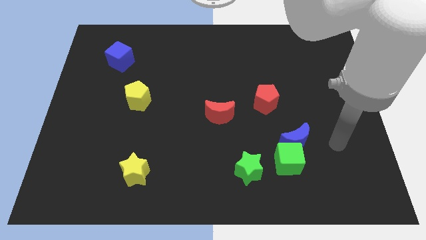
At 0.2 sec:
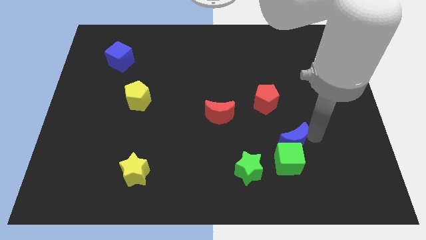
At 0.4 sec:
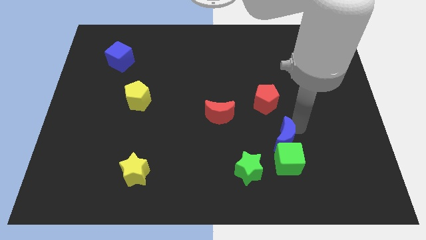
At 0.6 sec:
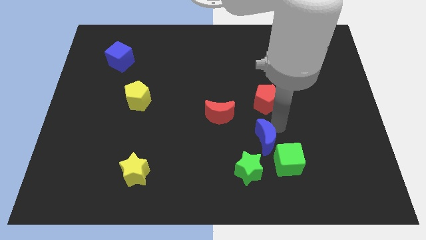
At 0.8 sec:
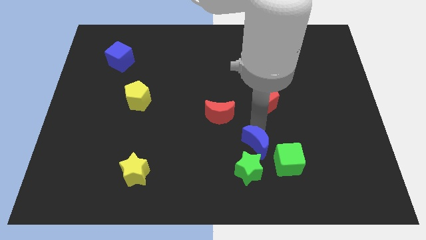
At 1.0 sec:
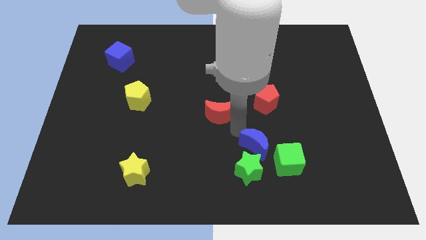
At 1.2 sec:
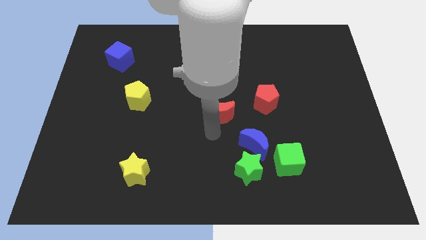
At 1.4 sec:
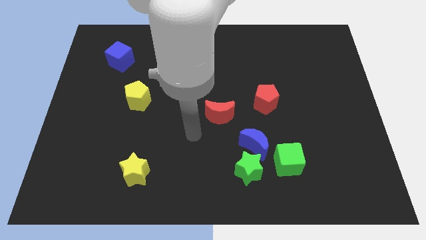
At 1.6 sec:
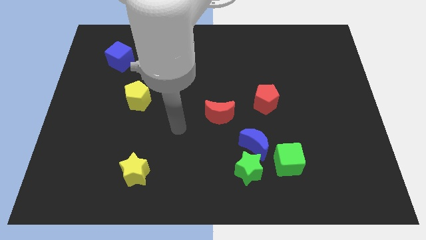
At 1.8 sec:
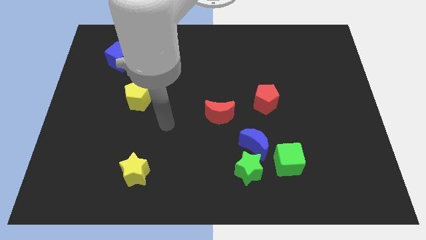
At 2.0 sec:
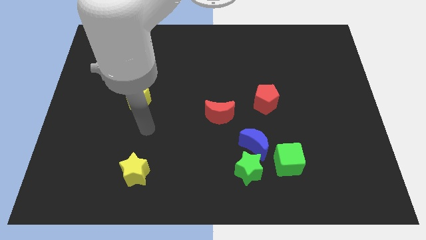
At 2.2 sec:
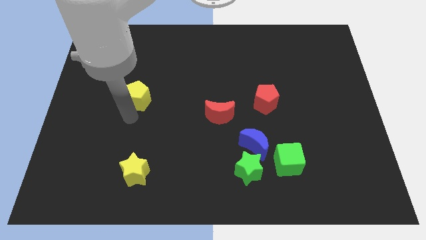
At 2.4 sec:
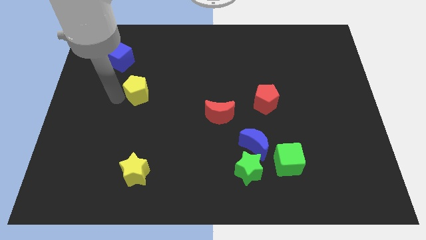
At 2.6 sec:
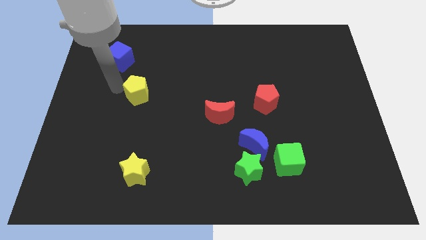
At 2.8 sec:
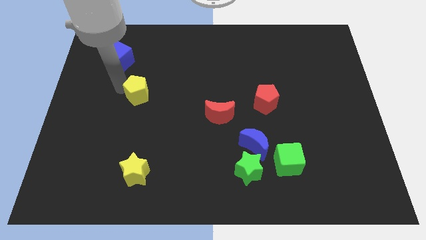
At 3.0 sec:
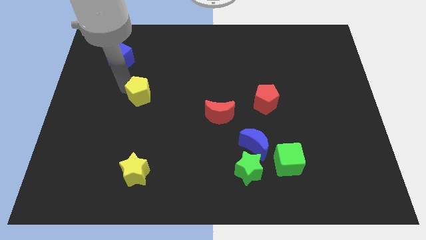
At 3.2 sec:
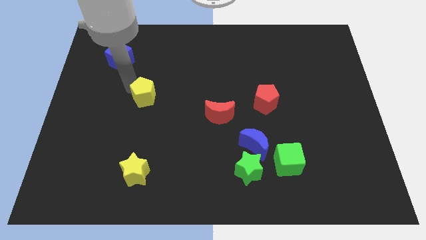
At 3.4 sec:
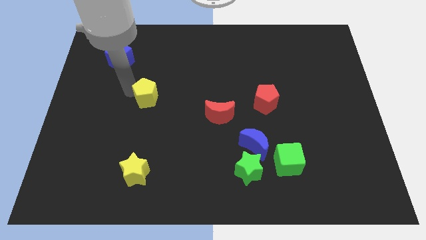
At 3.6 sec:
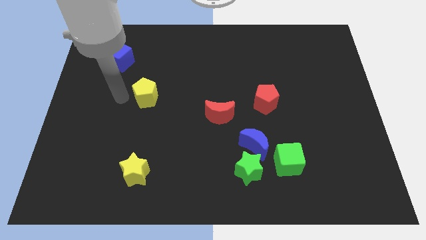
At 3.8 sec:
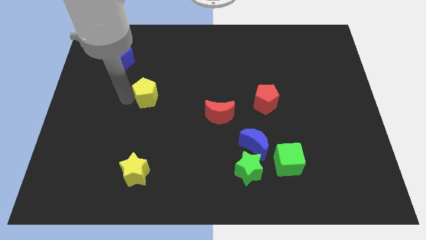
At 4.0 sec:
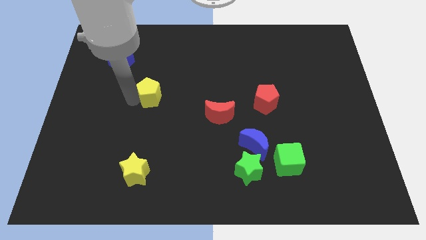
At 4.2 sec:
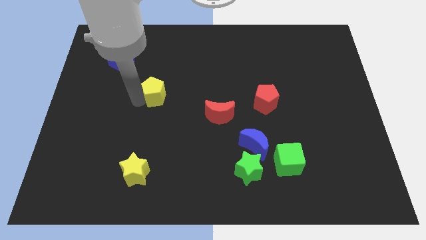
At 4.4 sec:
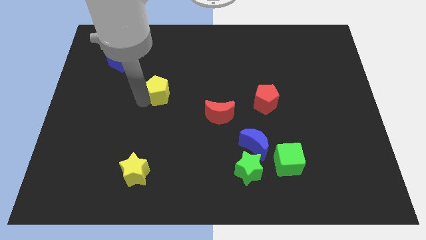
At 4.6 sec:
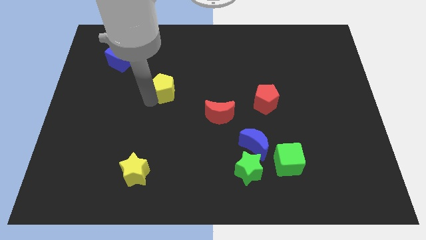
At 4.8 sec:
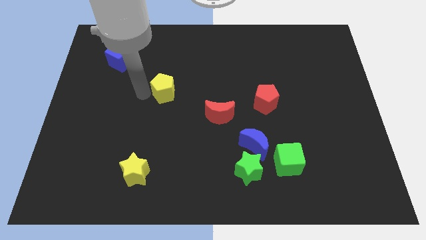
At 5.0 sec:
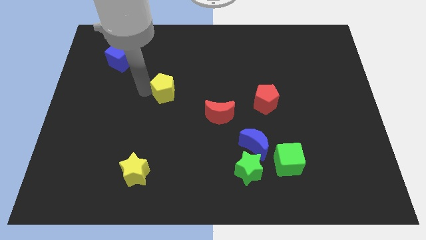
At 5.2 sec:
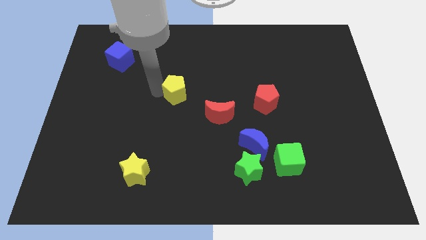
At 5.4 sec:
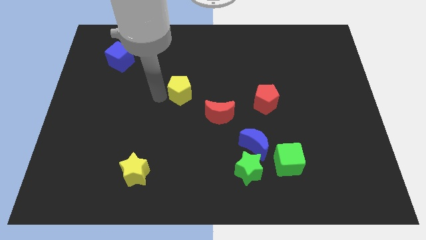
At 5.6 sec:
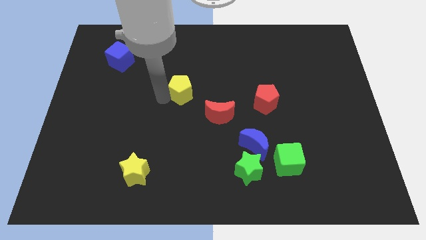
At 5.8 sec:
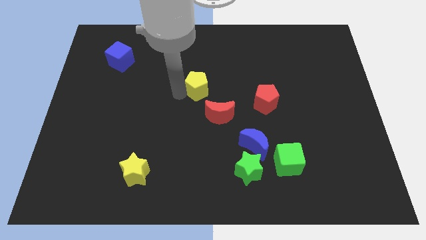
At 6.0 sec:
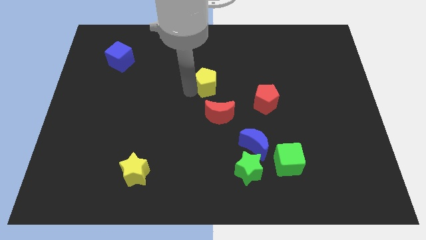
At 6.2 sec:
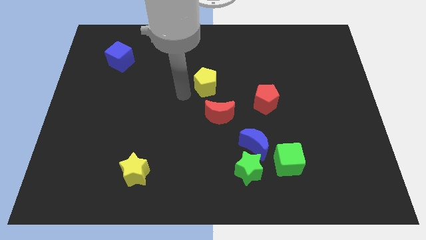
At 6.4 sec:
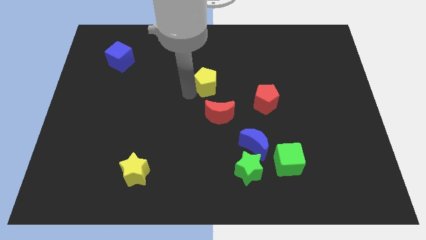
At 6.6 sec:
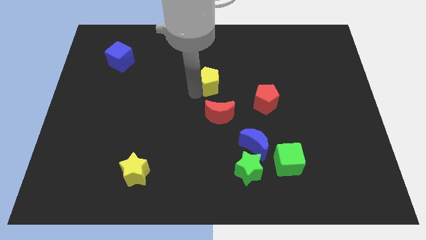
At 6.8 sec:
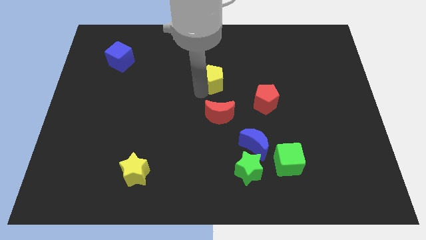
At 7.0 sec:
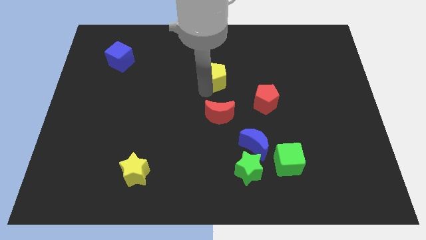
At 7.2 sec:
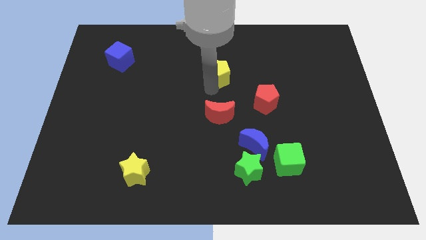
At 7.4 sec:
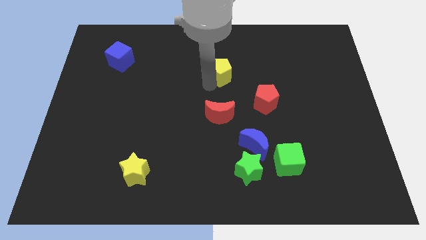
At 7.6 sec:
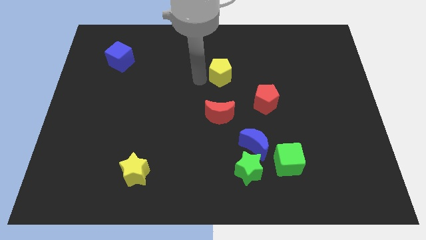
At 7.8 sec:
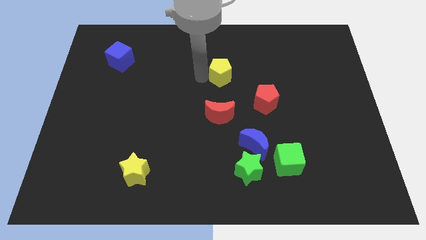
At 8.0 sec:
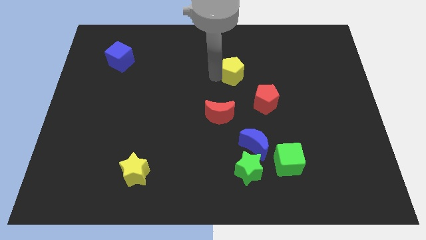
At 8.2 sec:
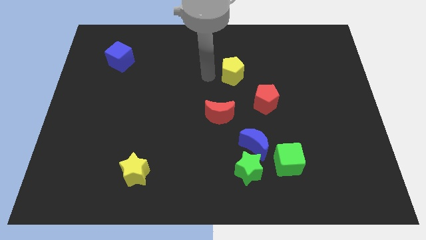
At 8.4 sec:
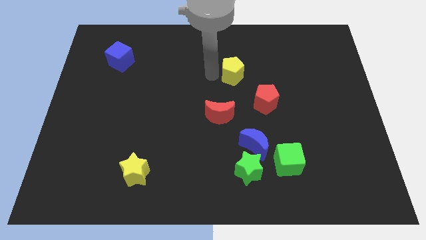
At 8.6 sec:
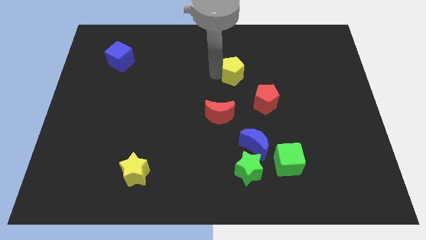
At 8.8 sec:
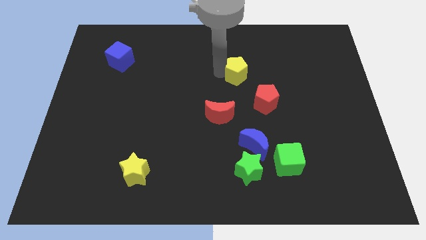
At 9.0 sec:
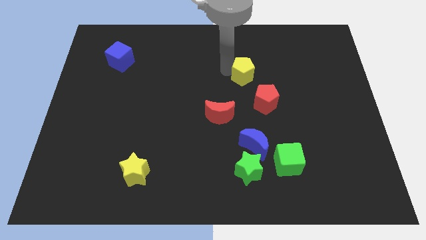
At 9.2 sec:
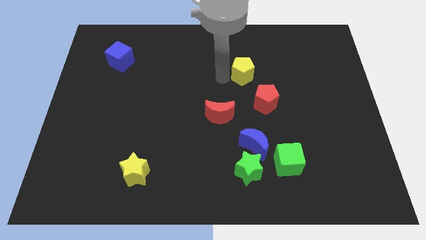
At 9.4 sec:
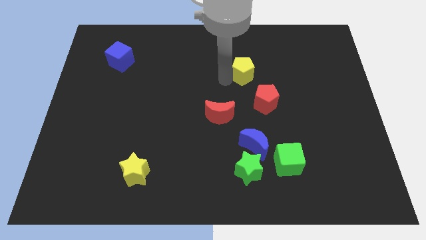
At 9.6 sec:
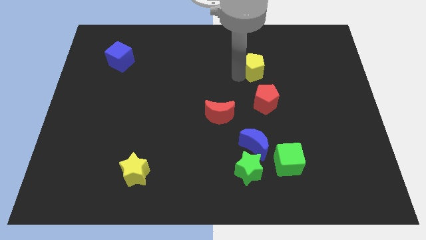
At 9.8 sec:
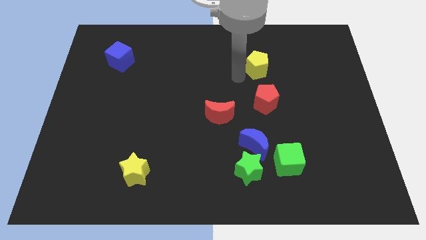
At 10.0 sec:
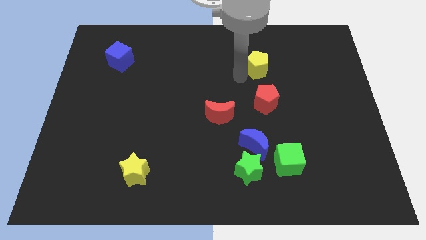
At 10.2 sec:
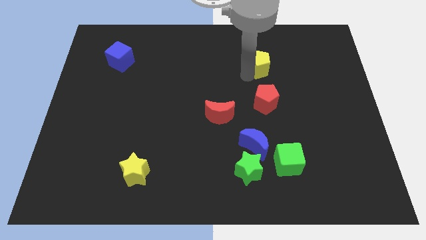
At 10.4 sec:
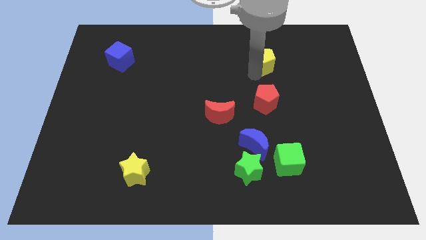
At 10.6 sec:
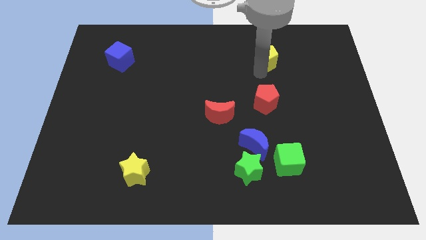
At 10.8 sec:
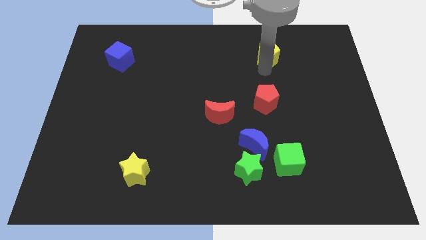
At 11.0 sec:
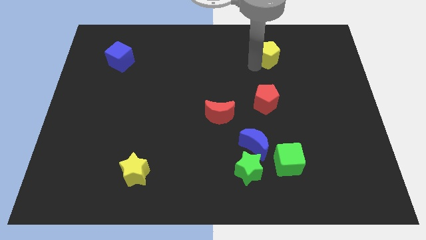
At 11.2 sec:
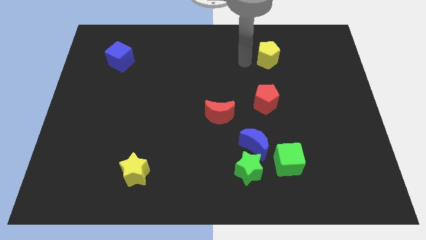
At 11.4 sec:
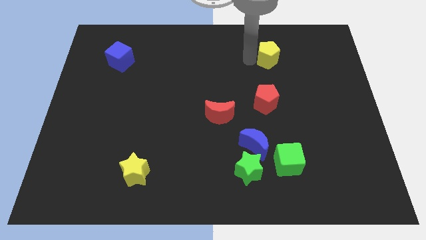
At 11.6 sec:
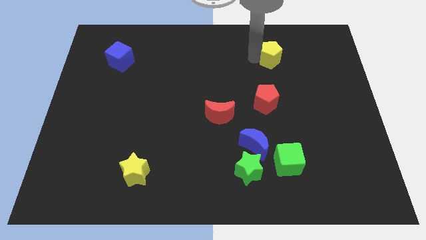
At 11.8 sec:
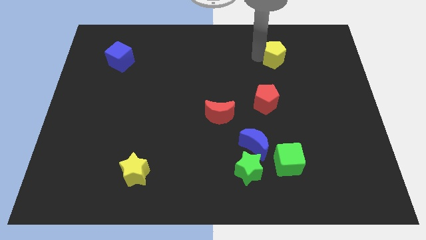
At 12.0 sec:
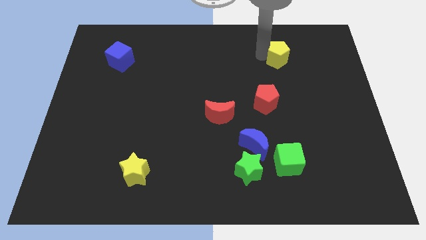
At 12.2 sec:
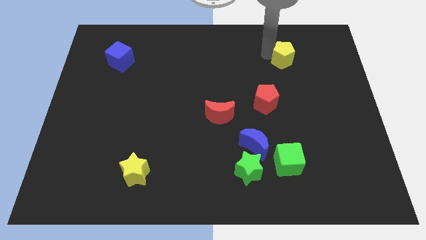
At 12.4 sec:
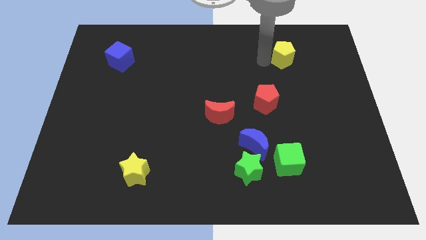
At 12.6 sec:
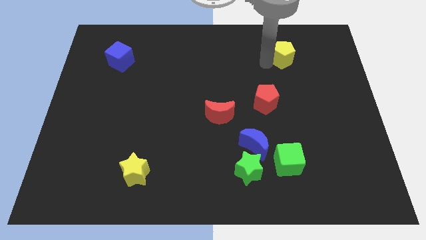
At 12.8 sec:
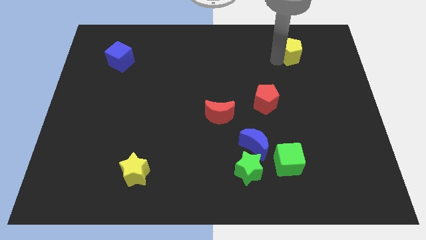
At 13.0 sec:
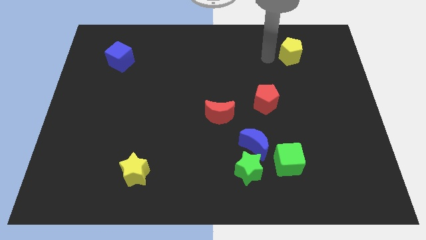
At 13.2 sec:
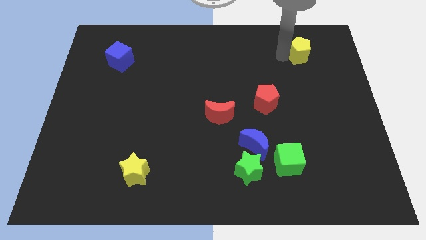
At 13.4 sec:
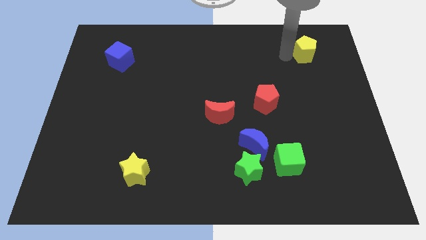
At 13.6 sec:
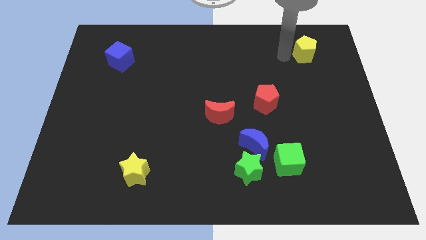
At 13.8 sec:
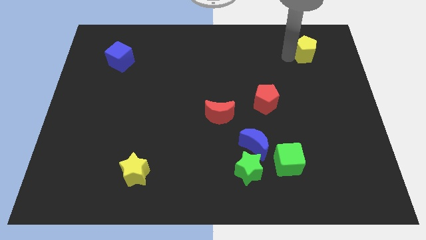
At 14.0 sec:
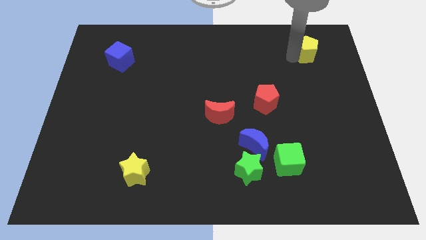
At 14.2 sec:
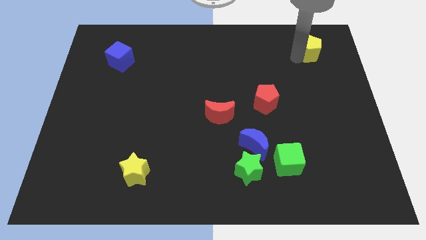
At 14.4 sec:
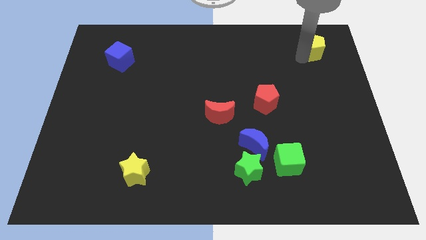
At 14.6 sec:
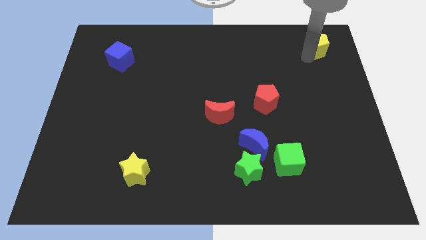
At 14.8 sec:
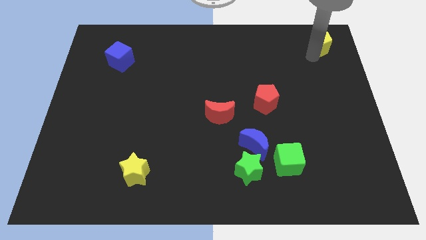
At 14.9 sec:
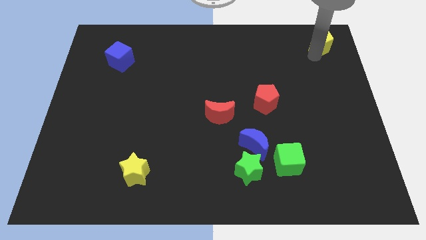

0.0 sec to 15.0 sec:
put the yellow pentagon to the top right corner
